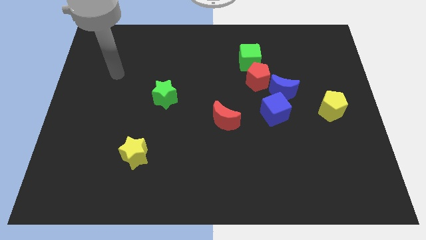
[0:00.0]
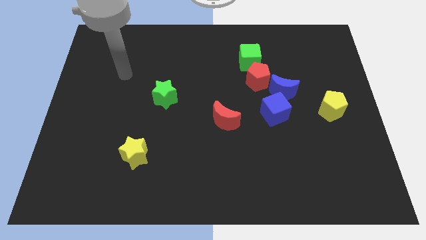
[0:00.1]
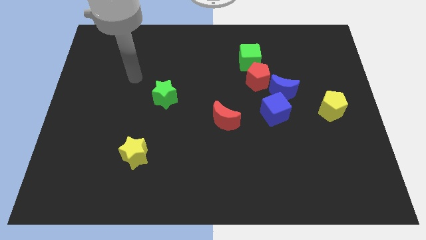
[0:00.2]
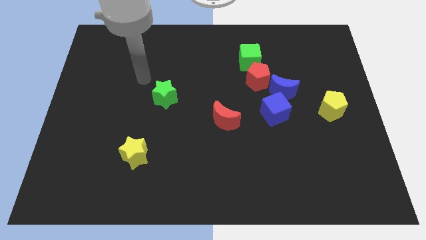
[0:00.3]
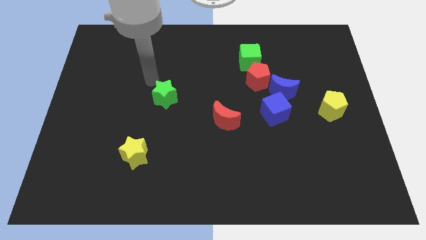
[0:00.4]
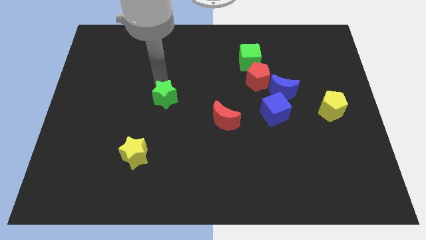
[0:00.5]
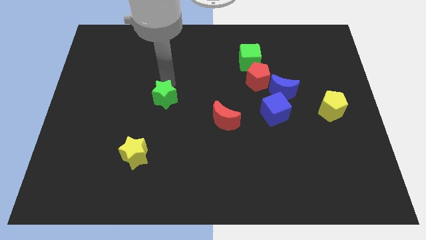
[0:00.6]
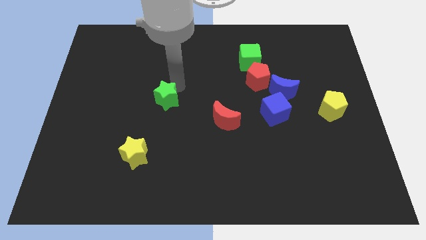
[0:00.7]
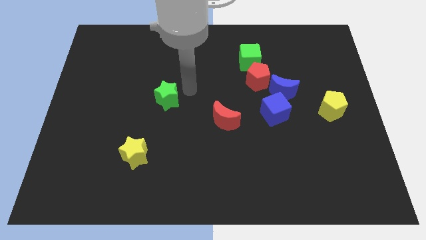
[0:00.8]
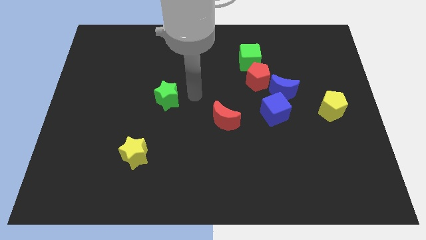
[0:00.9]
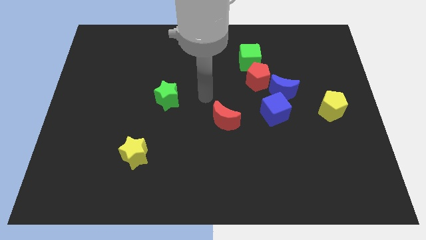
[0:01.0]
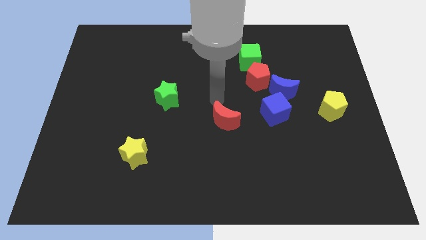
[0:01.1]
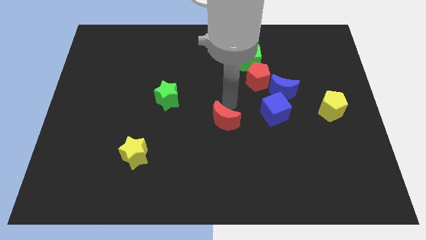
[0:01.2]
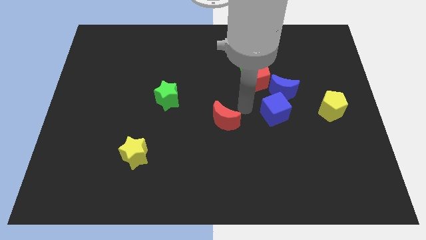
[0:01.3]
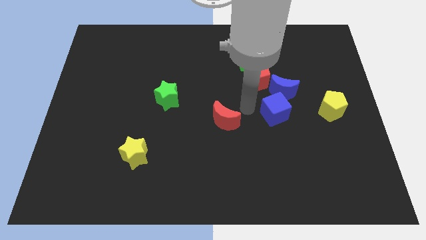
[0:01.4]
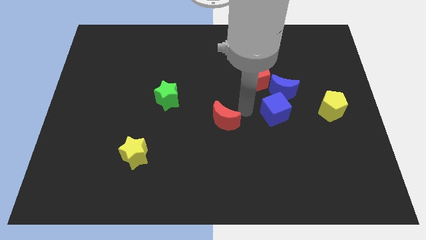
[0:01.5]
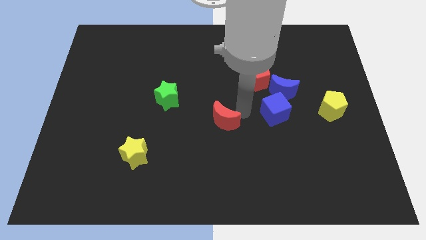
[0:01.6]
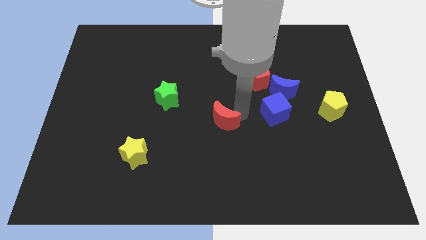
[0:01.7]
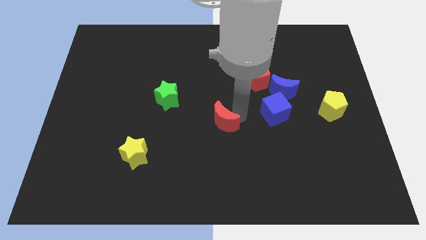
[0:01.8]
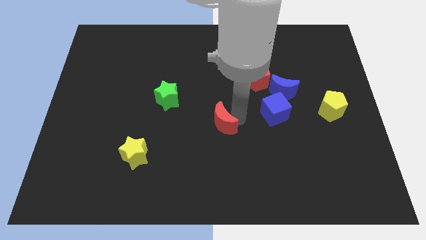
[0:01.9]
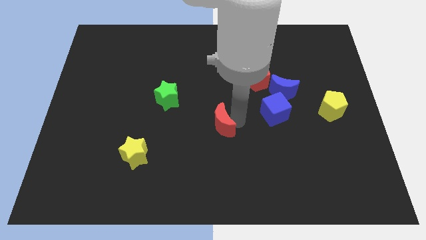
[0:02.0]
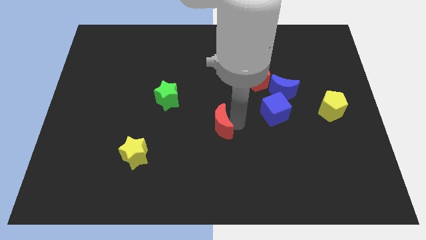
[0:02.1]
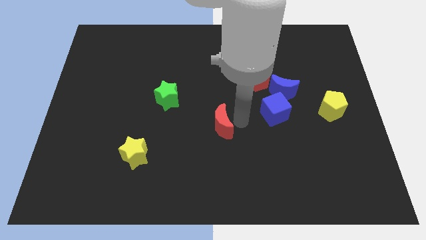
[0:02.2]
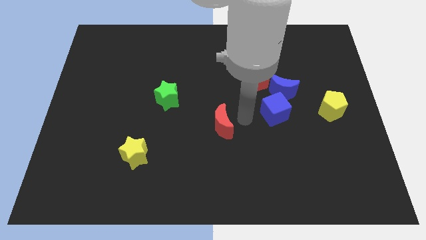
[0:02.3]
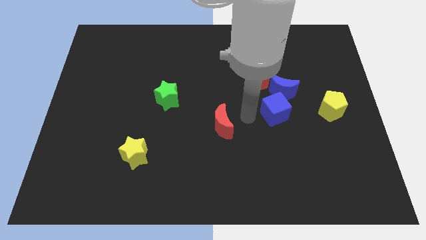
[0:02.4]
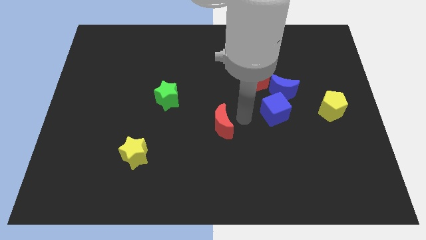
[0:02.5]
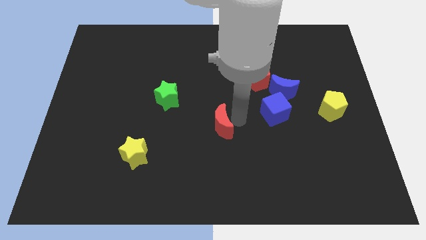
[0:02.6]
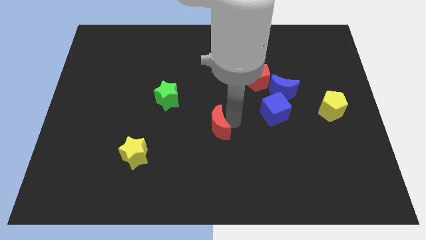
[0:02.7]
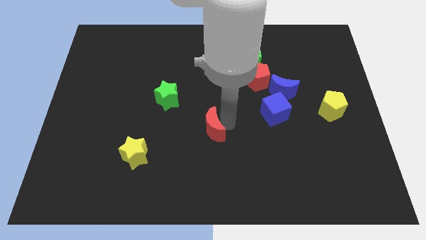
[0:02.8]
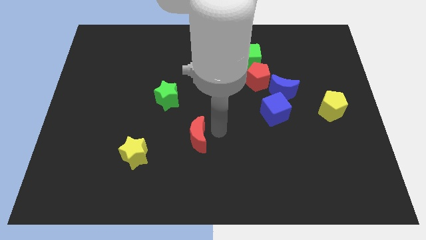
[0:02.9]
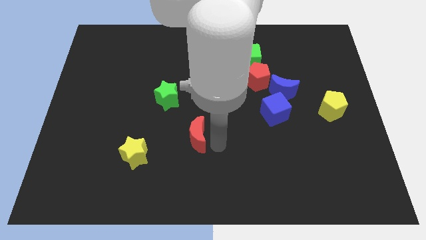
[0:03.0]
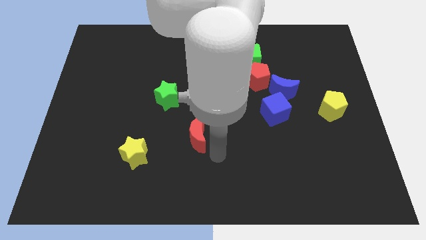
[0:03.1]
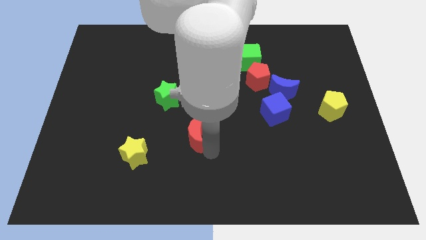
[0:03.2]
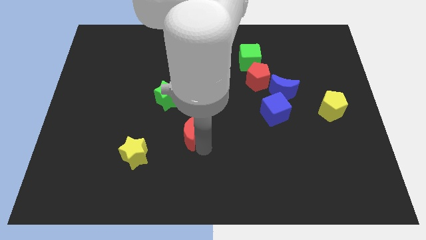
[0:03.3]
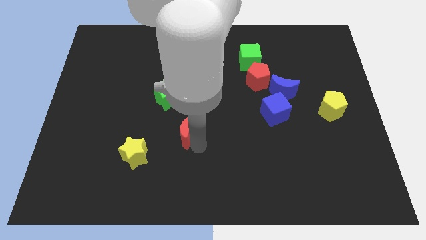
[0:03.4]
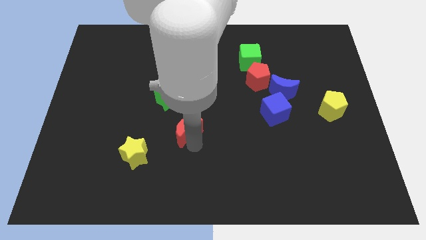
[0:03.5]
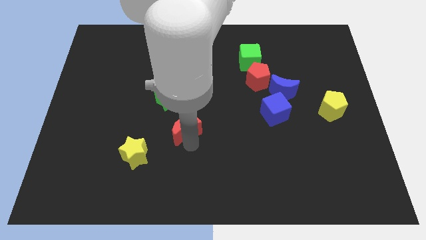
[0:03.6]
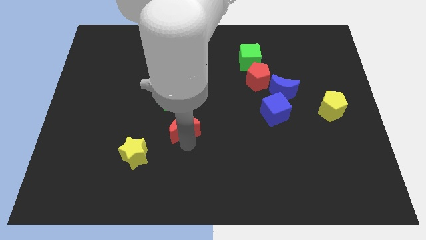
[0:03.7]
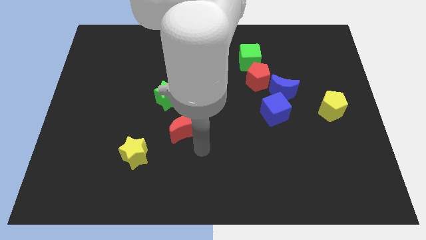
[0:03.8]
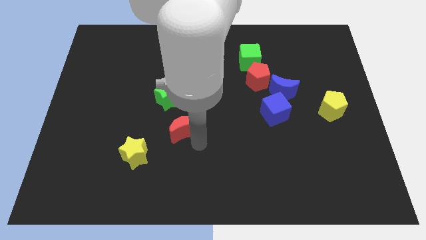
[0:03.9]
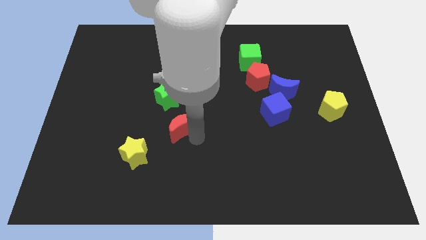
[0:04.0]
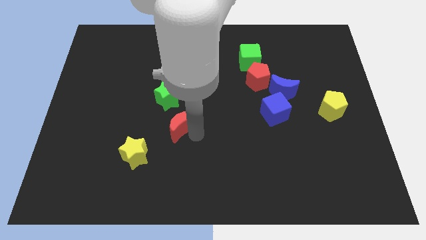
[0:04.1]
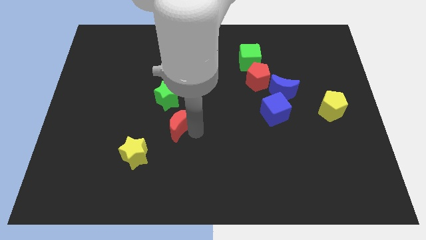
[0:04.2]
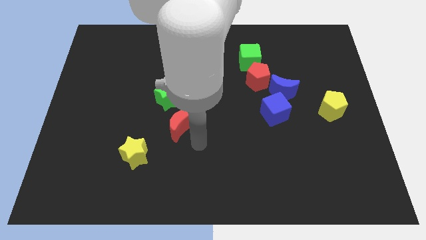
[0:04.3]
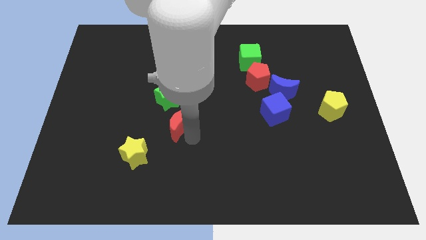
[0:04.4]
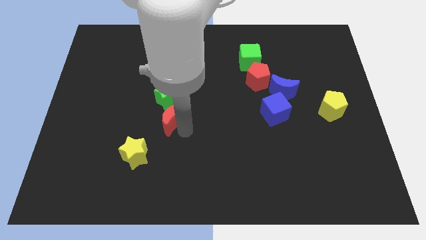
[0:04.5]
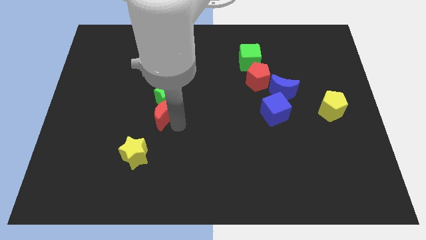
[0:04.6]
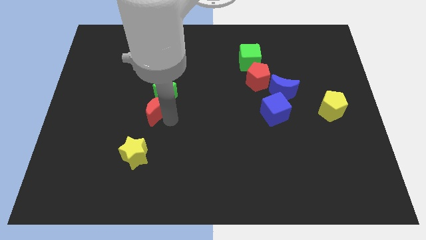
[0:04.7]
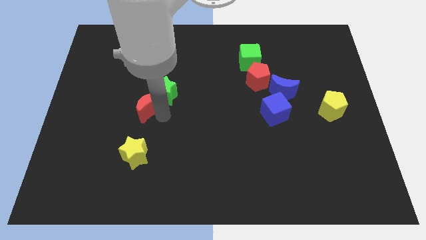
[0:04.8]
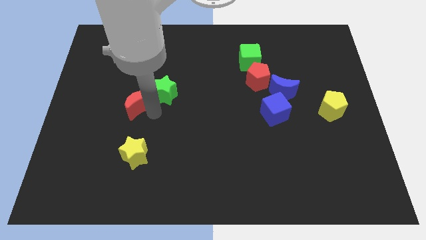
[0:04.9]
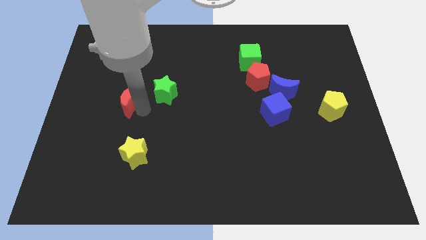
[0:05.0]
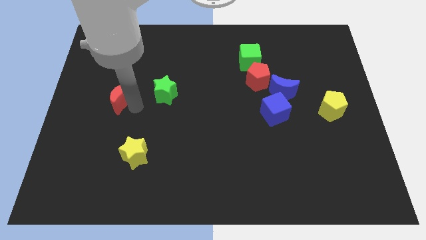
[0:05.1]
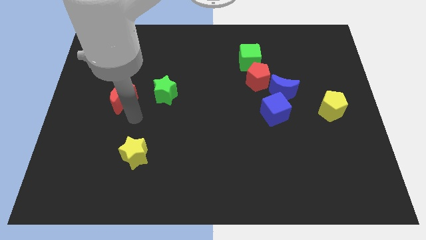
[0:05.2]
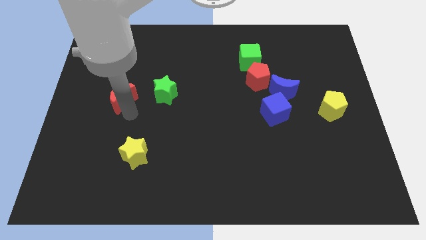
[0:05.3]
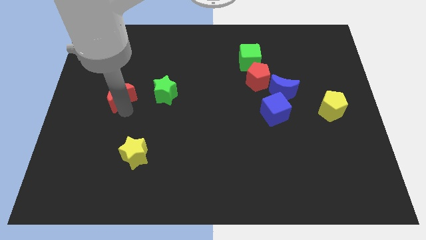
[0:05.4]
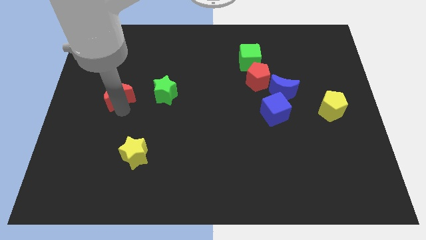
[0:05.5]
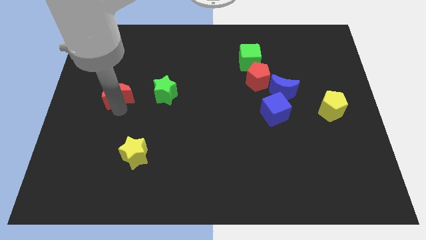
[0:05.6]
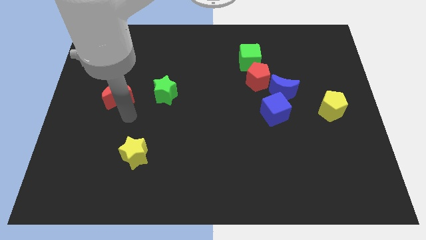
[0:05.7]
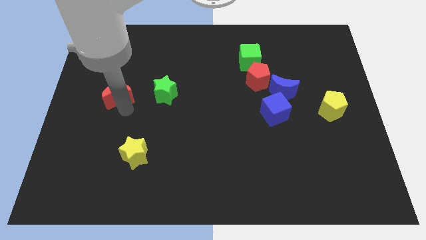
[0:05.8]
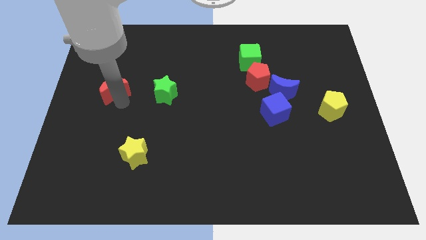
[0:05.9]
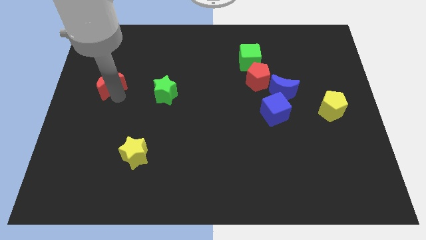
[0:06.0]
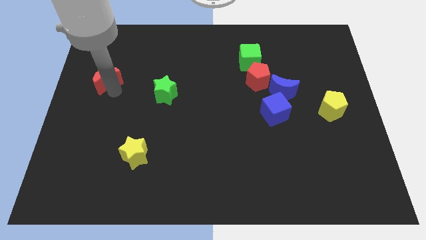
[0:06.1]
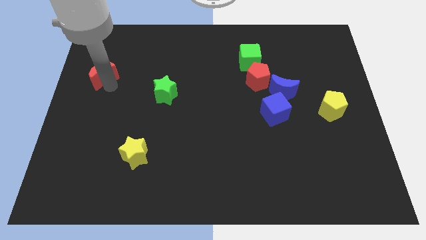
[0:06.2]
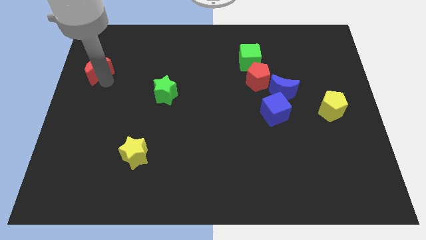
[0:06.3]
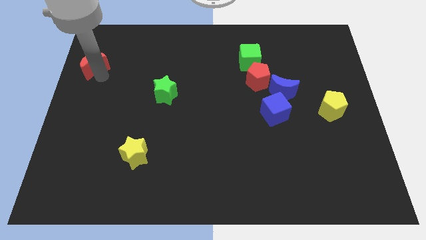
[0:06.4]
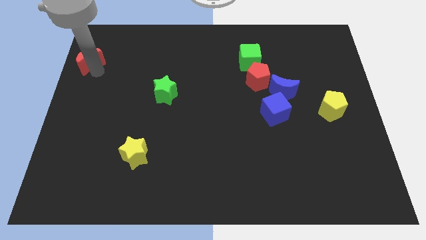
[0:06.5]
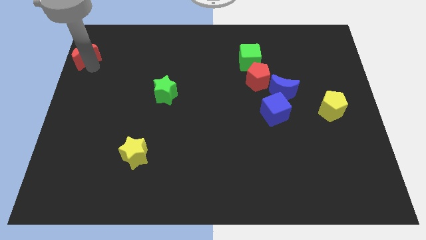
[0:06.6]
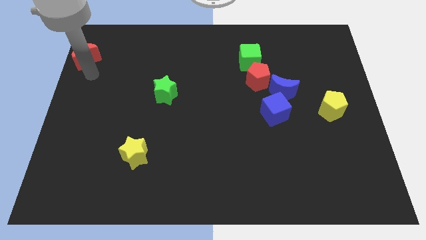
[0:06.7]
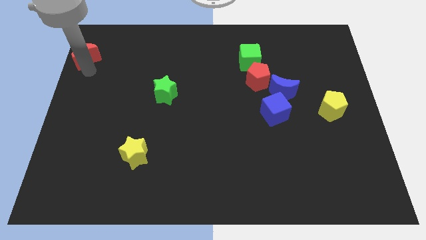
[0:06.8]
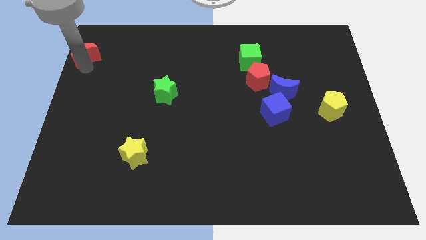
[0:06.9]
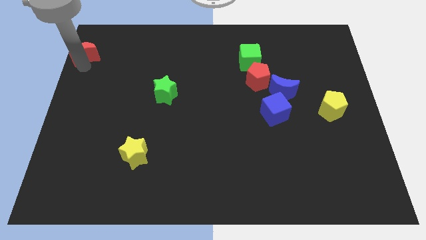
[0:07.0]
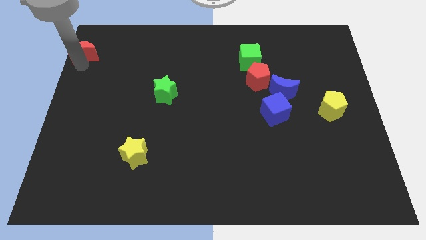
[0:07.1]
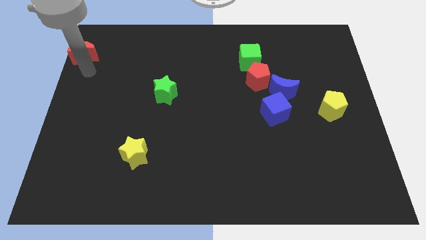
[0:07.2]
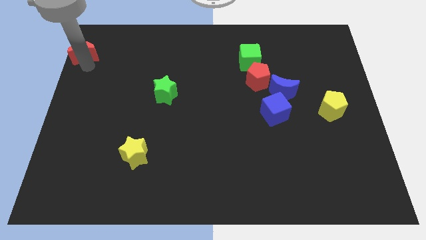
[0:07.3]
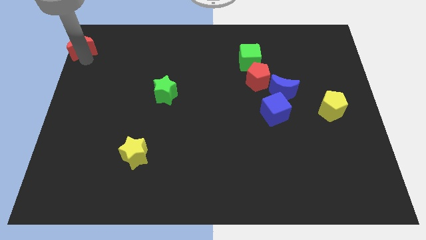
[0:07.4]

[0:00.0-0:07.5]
slide the red moon to the top left
